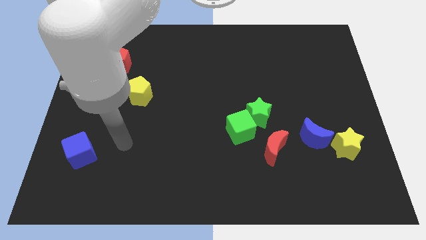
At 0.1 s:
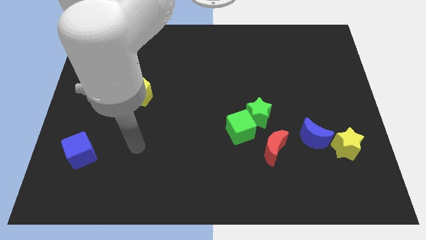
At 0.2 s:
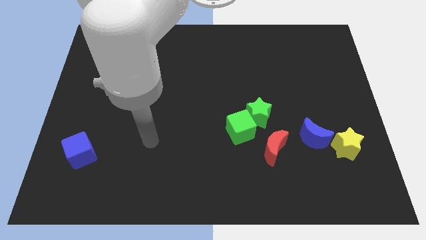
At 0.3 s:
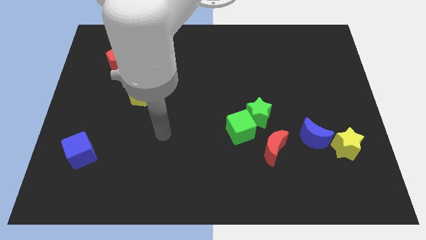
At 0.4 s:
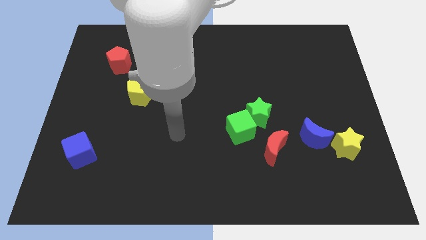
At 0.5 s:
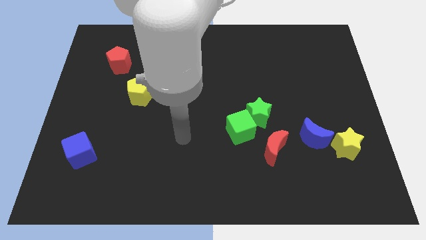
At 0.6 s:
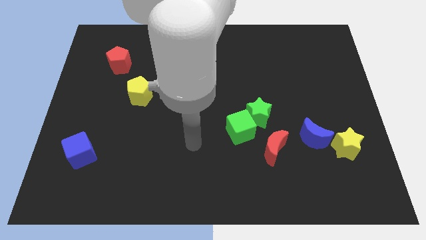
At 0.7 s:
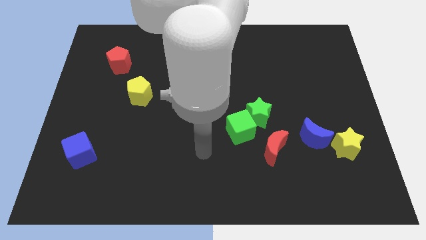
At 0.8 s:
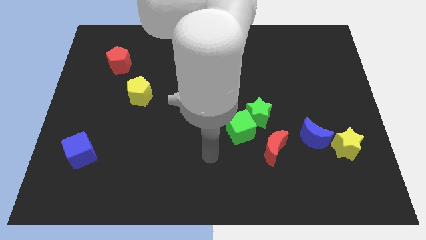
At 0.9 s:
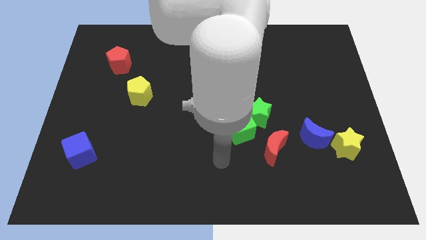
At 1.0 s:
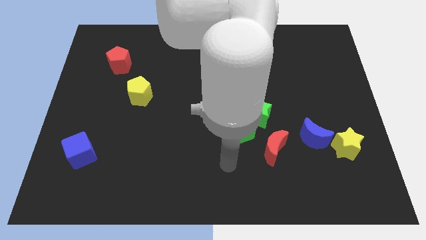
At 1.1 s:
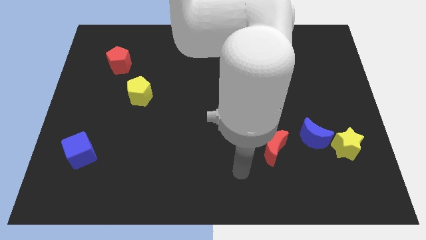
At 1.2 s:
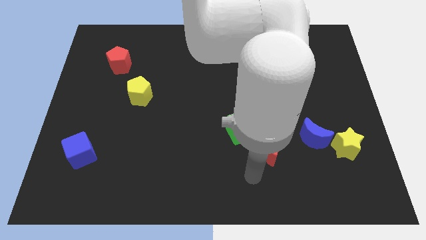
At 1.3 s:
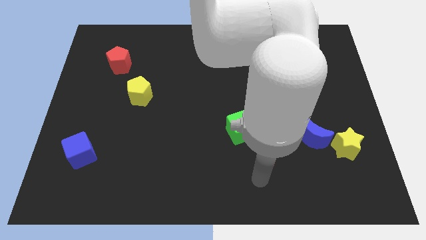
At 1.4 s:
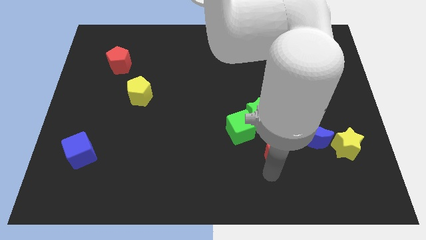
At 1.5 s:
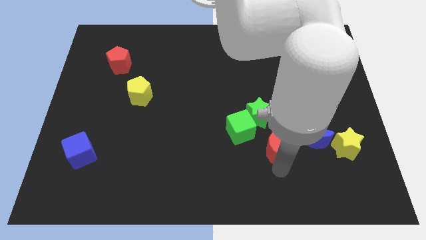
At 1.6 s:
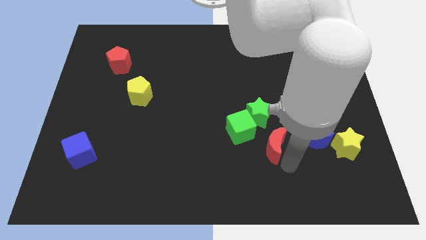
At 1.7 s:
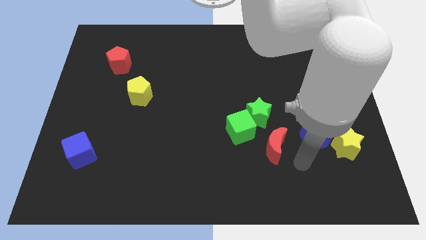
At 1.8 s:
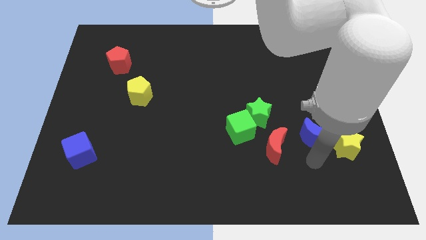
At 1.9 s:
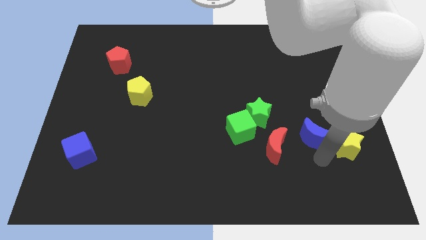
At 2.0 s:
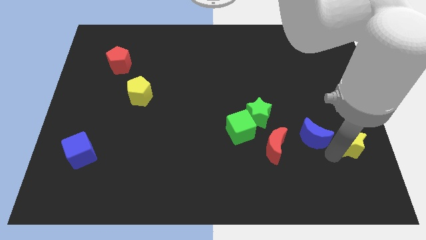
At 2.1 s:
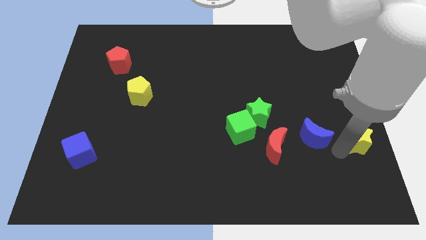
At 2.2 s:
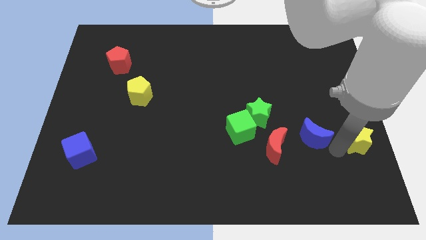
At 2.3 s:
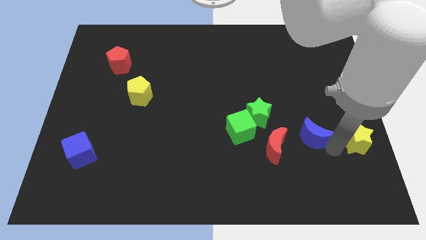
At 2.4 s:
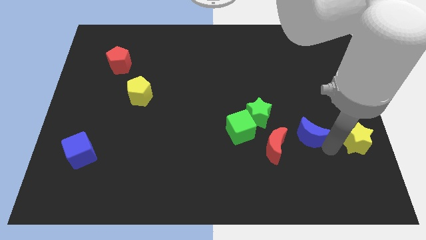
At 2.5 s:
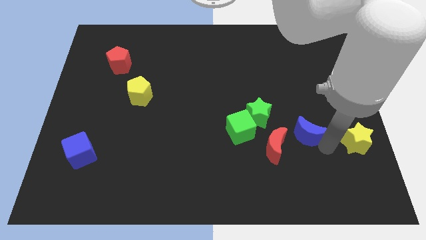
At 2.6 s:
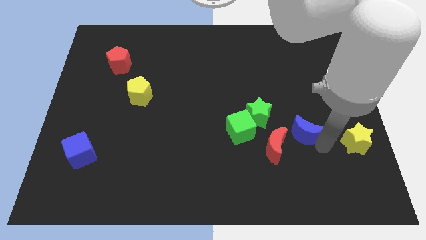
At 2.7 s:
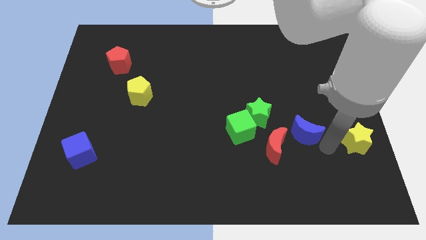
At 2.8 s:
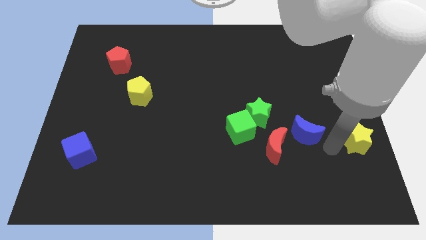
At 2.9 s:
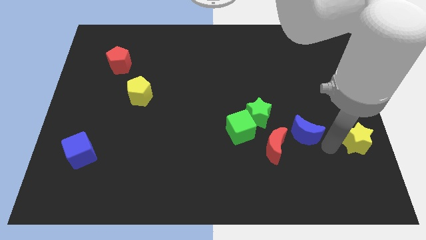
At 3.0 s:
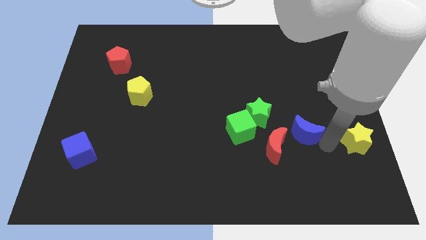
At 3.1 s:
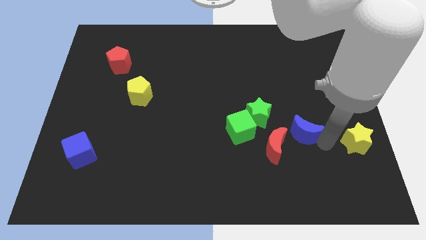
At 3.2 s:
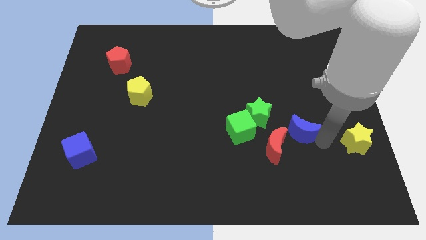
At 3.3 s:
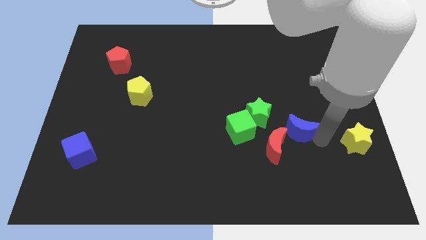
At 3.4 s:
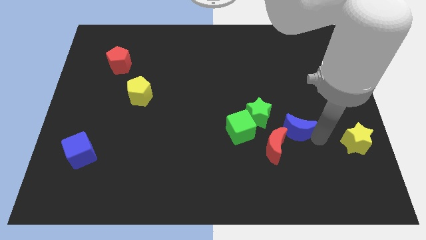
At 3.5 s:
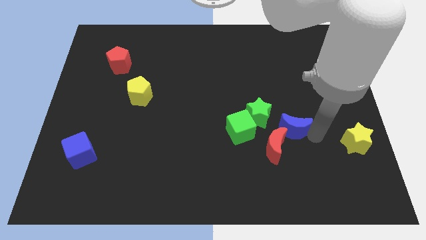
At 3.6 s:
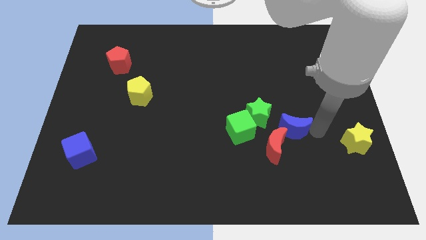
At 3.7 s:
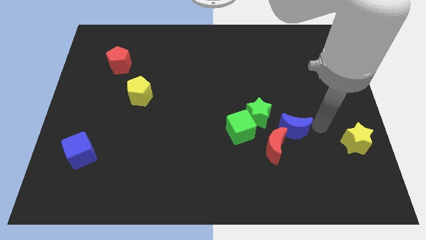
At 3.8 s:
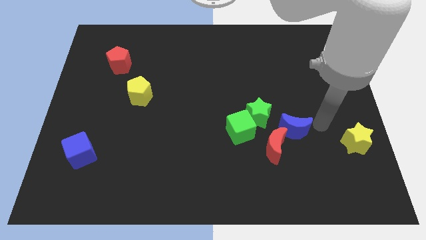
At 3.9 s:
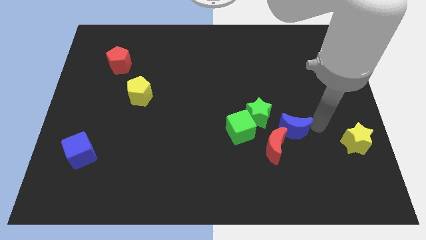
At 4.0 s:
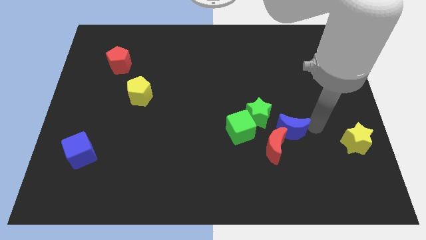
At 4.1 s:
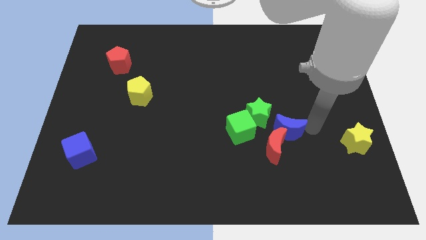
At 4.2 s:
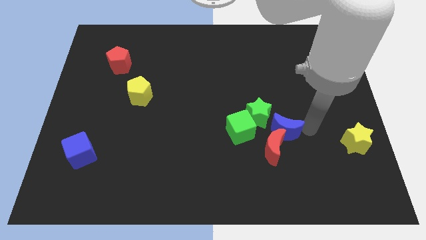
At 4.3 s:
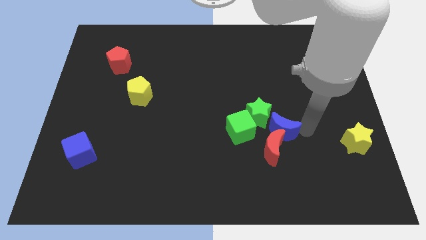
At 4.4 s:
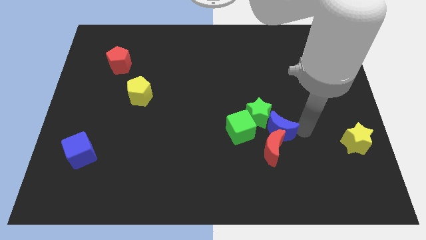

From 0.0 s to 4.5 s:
move the blue moon left a little

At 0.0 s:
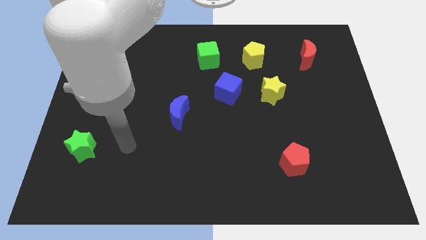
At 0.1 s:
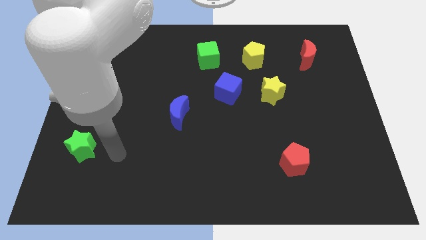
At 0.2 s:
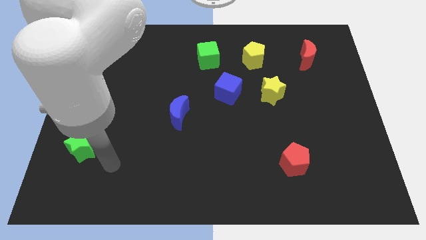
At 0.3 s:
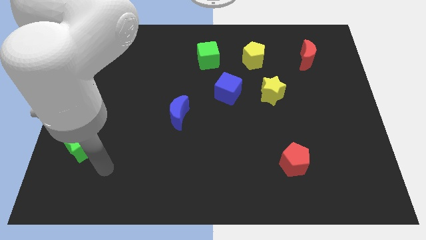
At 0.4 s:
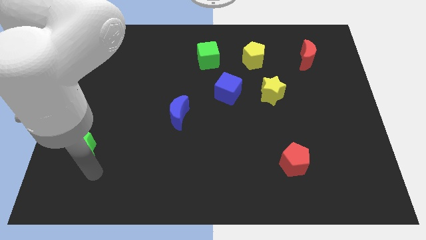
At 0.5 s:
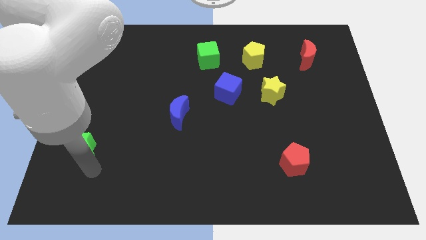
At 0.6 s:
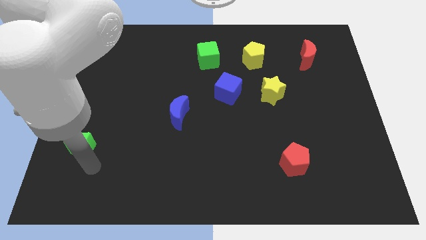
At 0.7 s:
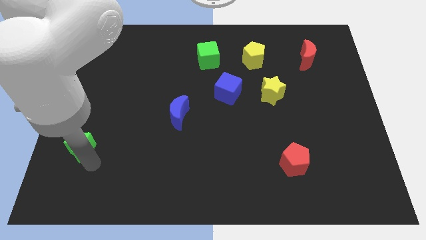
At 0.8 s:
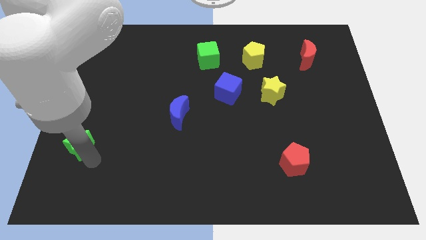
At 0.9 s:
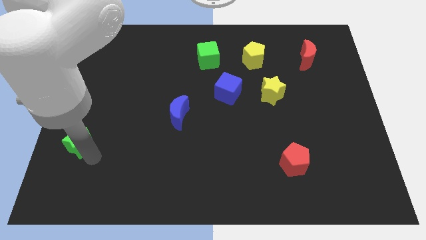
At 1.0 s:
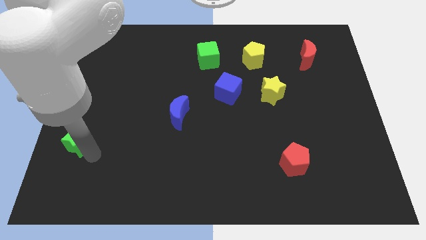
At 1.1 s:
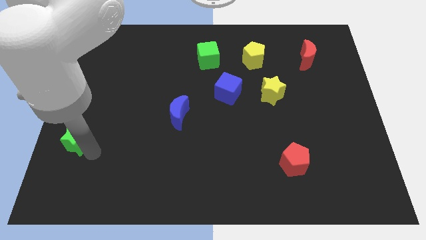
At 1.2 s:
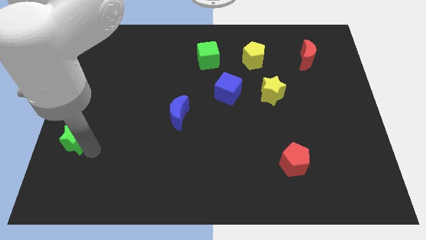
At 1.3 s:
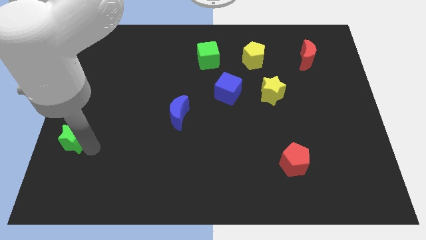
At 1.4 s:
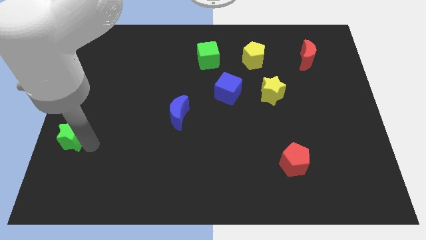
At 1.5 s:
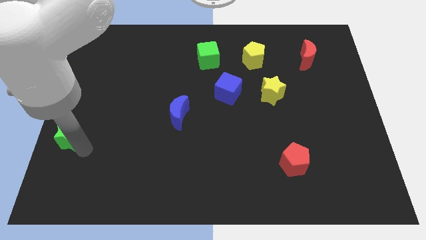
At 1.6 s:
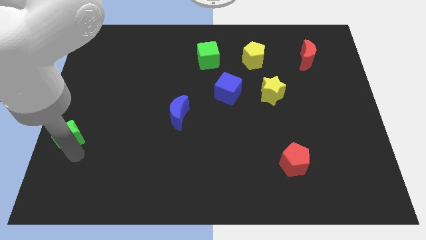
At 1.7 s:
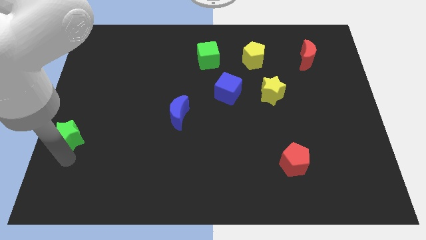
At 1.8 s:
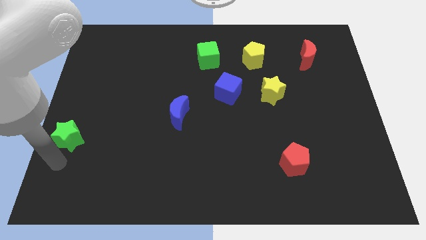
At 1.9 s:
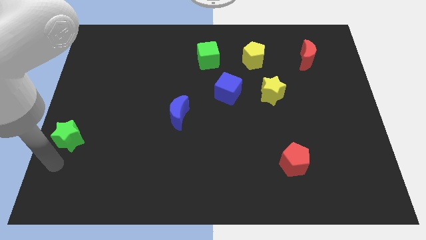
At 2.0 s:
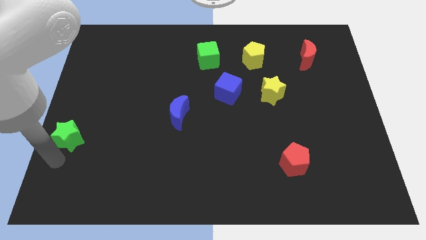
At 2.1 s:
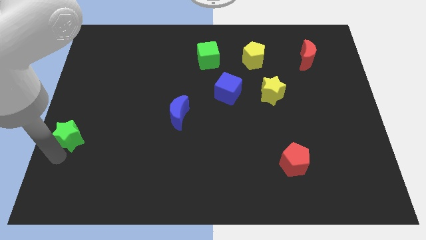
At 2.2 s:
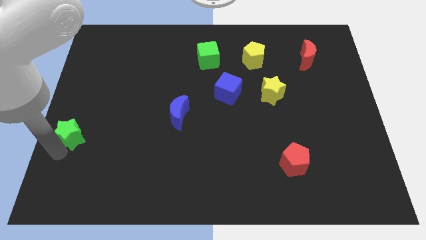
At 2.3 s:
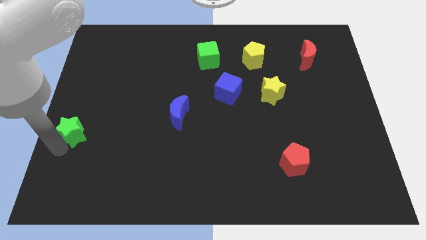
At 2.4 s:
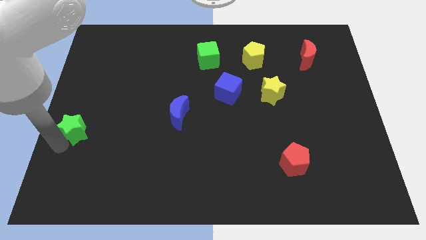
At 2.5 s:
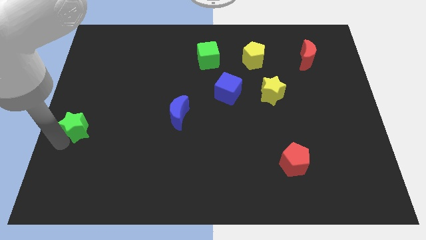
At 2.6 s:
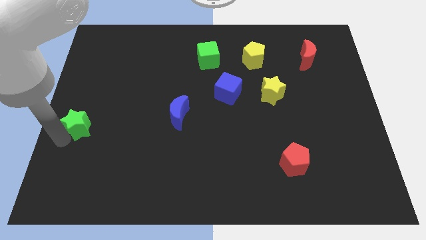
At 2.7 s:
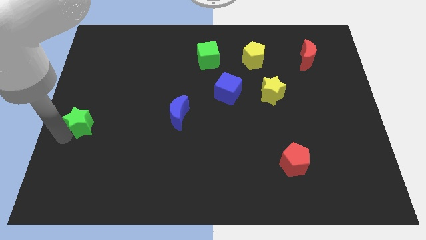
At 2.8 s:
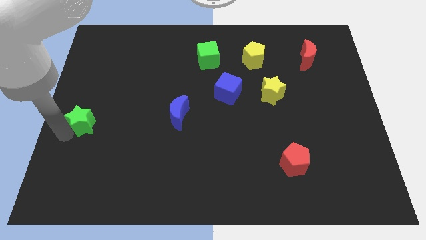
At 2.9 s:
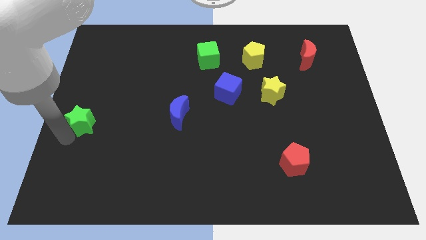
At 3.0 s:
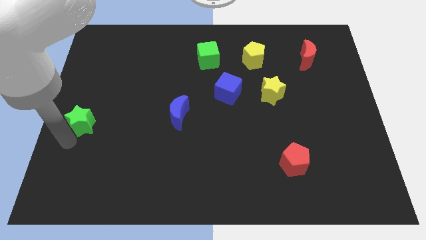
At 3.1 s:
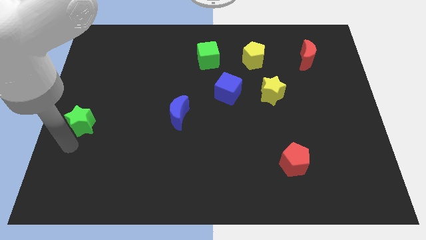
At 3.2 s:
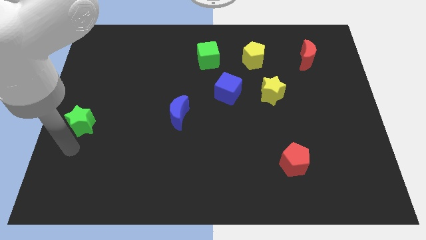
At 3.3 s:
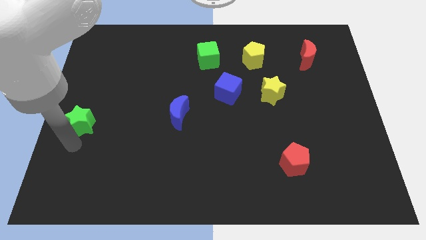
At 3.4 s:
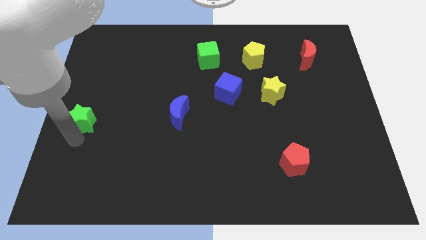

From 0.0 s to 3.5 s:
move the green star up a little
